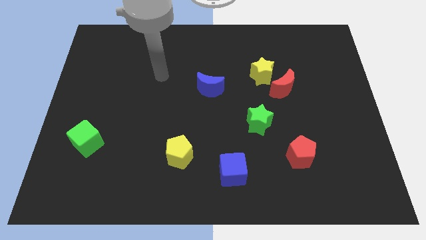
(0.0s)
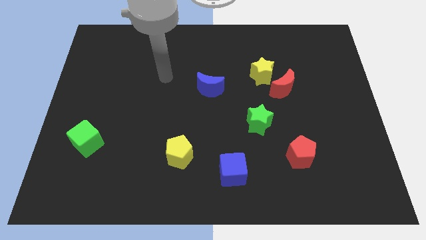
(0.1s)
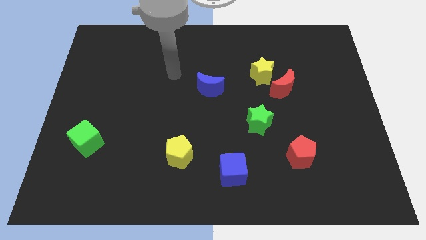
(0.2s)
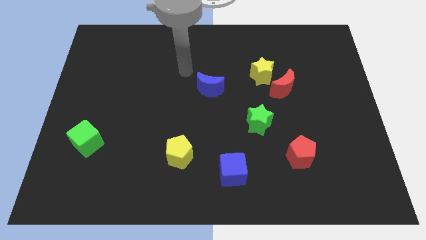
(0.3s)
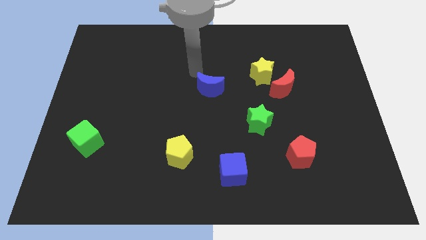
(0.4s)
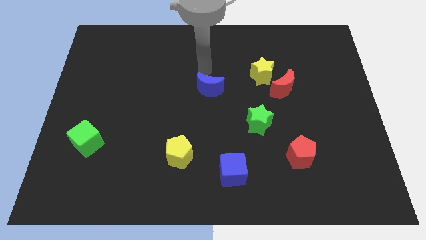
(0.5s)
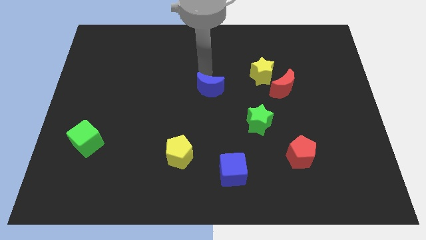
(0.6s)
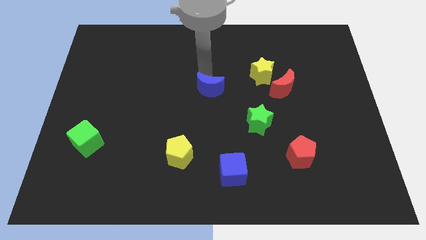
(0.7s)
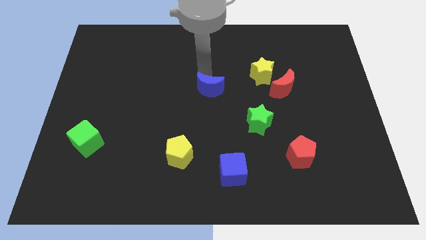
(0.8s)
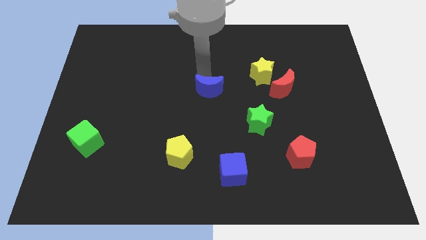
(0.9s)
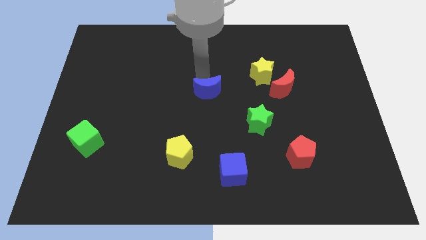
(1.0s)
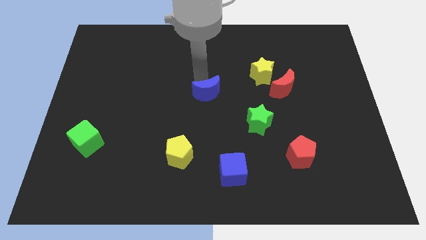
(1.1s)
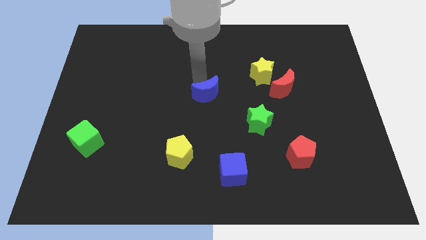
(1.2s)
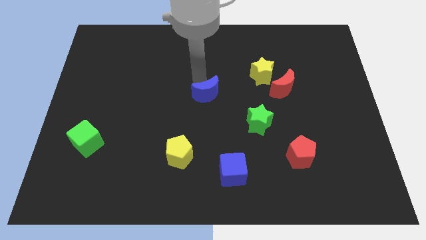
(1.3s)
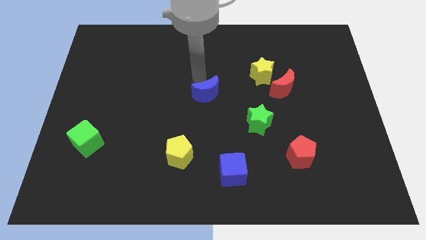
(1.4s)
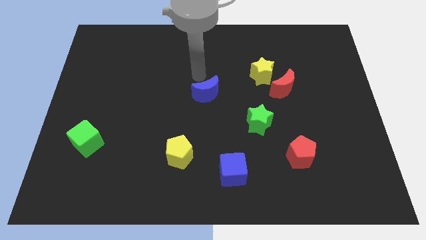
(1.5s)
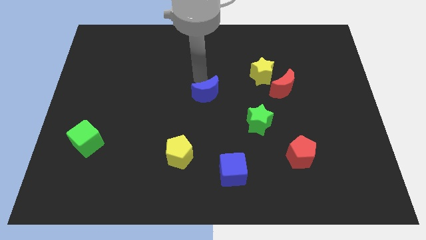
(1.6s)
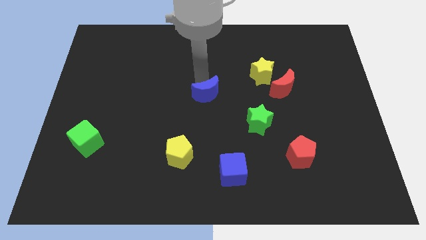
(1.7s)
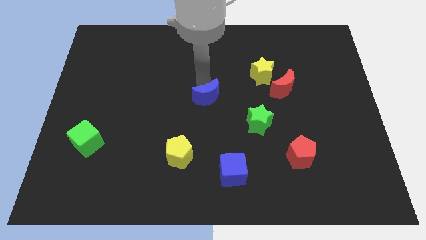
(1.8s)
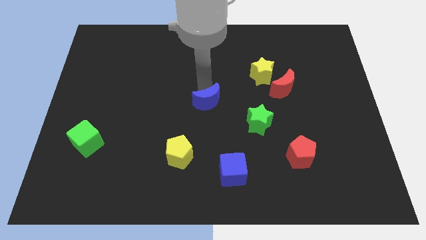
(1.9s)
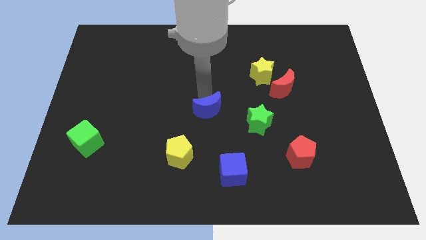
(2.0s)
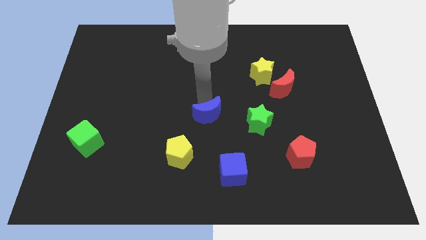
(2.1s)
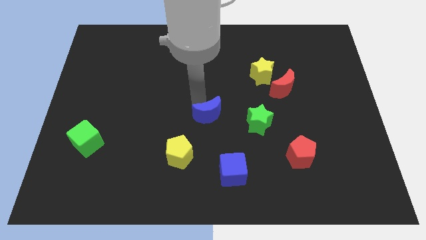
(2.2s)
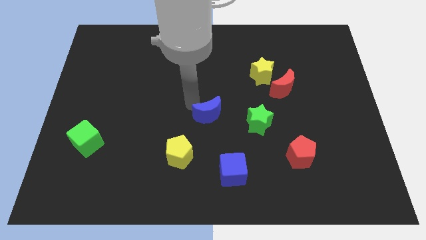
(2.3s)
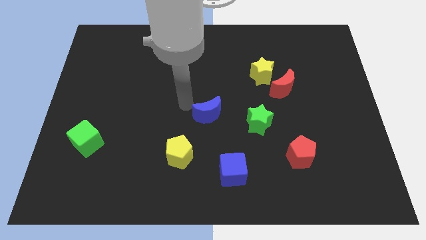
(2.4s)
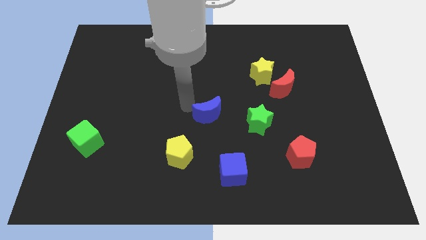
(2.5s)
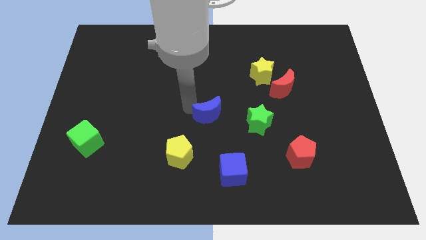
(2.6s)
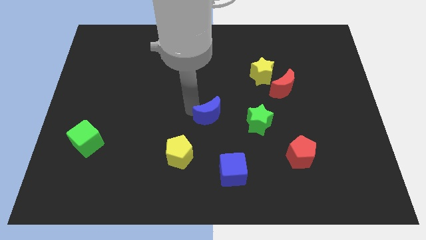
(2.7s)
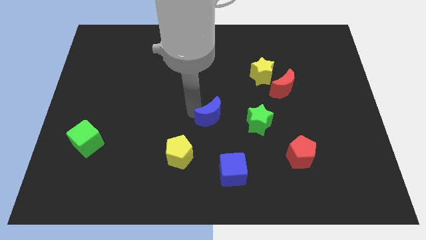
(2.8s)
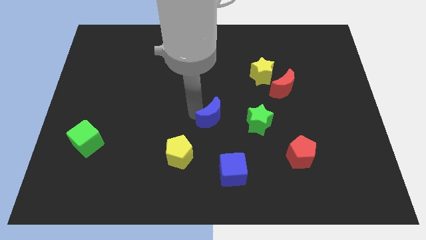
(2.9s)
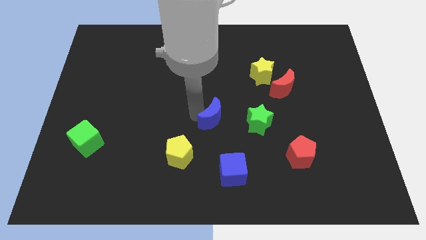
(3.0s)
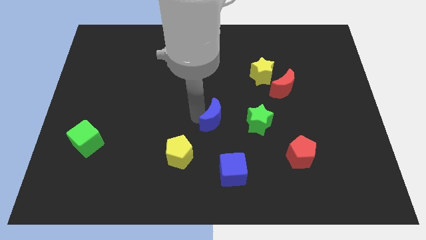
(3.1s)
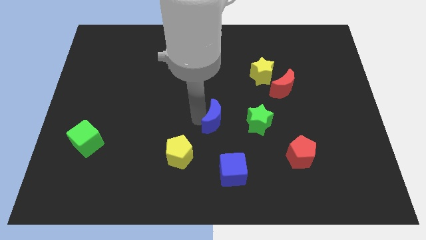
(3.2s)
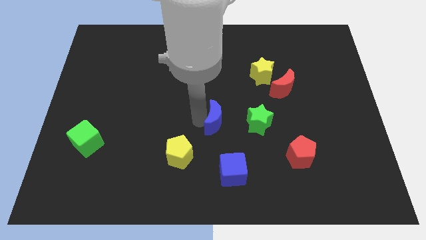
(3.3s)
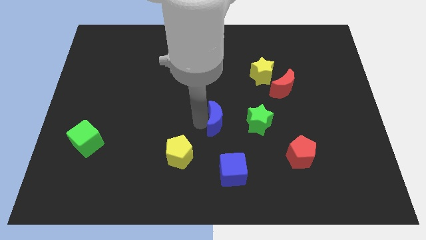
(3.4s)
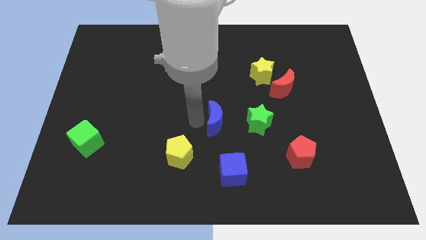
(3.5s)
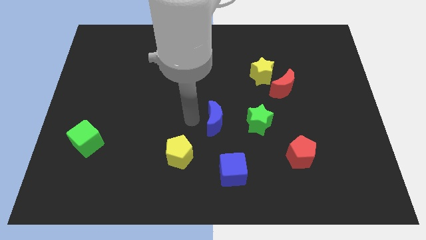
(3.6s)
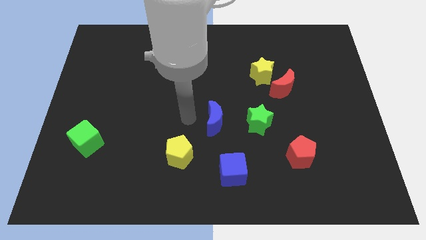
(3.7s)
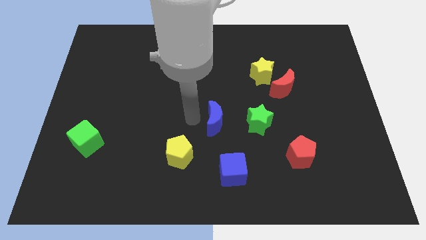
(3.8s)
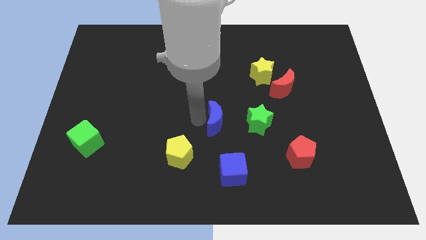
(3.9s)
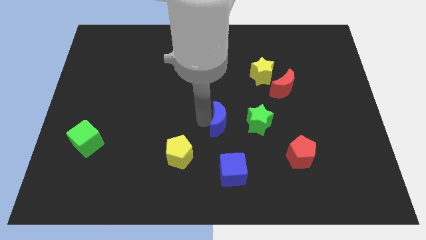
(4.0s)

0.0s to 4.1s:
push the blue moon a little bit diagonally down and right

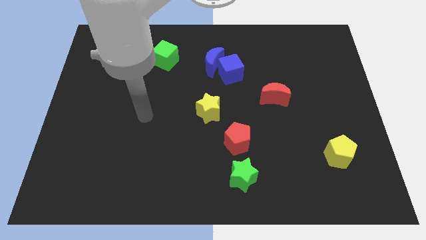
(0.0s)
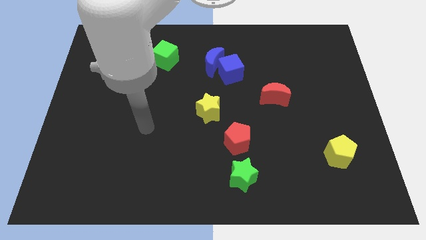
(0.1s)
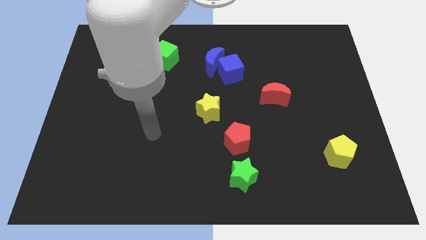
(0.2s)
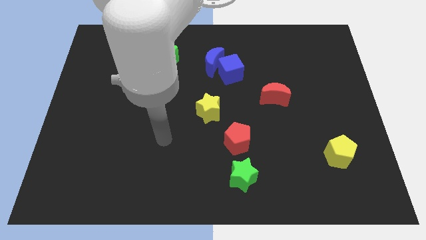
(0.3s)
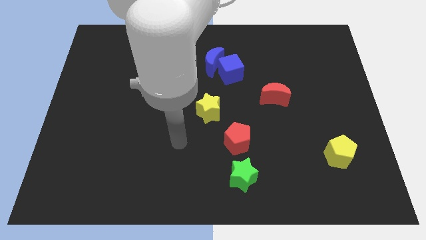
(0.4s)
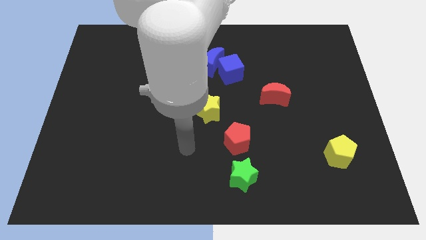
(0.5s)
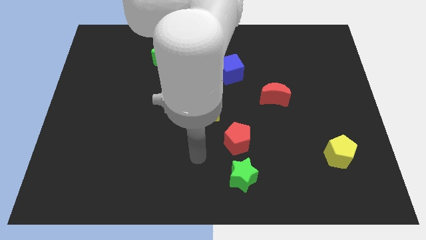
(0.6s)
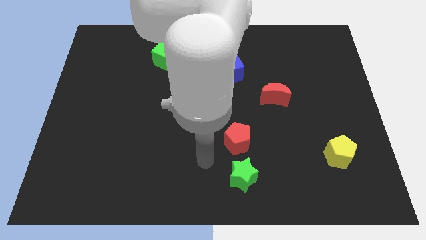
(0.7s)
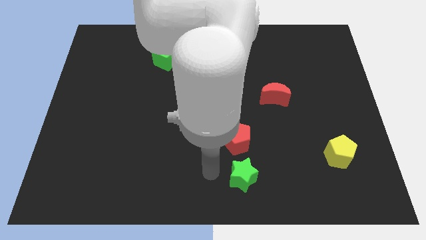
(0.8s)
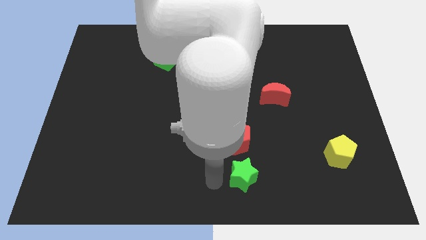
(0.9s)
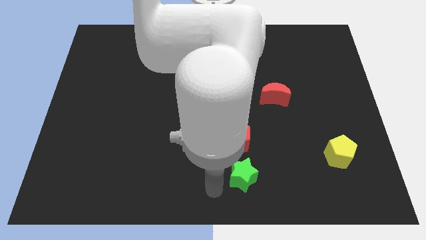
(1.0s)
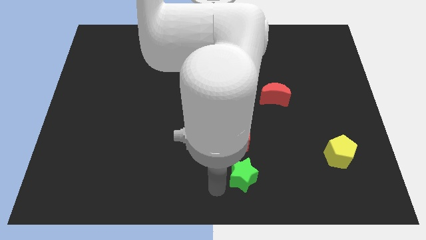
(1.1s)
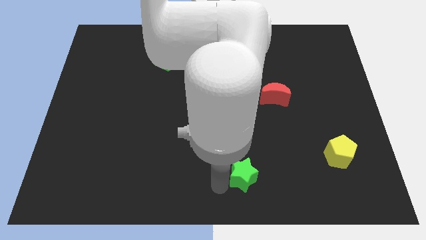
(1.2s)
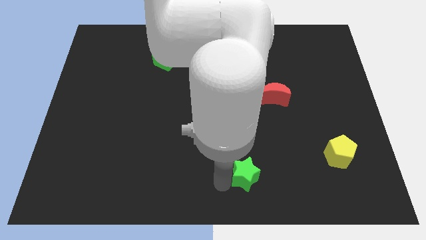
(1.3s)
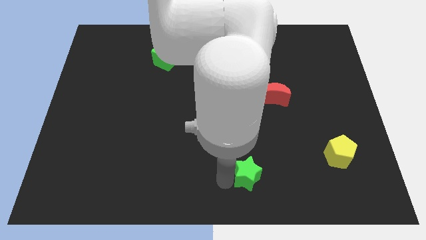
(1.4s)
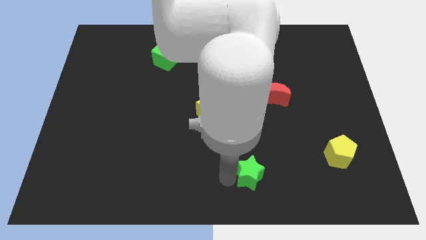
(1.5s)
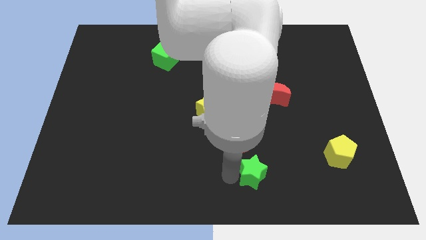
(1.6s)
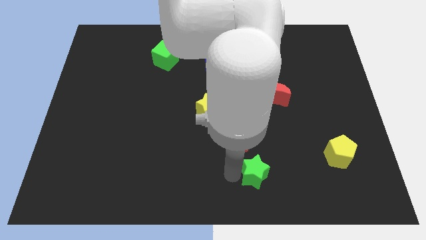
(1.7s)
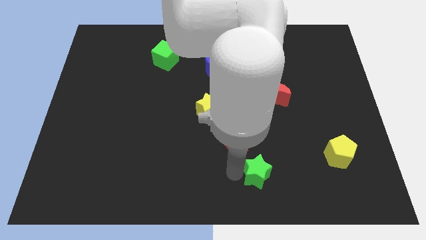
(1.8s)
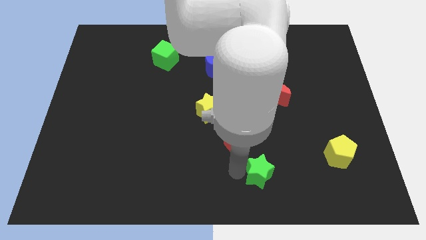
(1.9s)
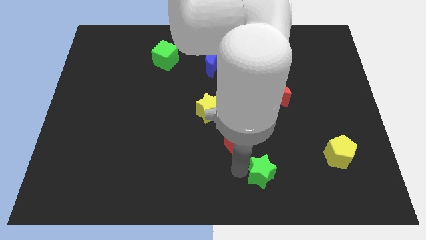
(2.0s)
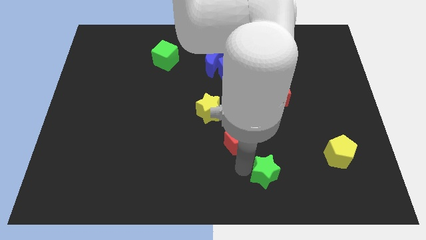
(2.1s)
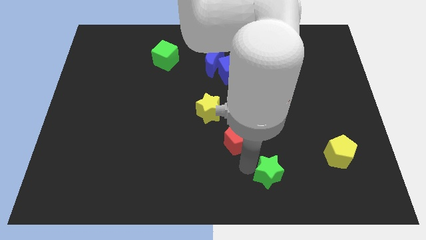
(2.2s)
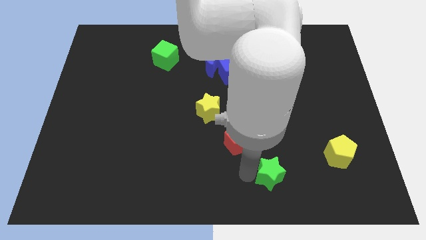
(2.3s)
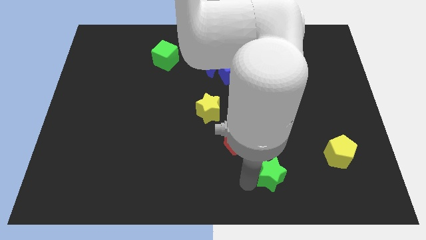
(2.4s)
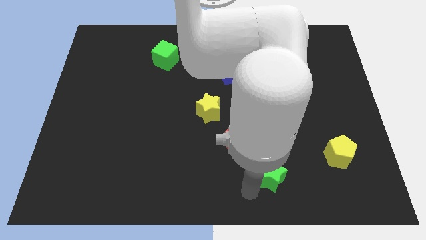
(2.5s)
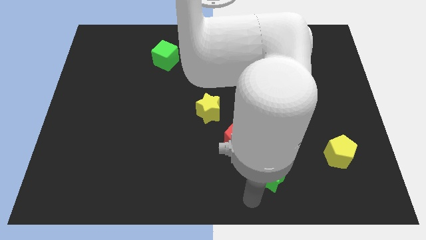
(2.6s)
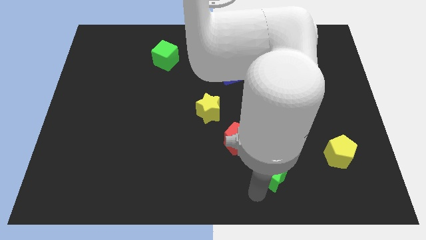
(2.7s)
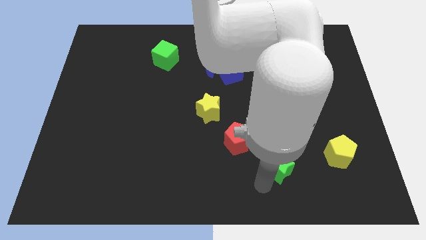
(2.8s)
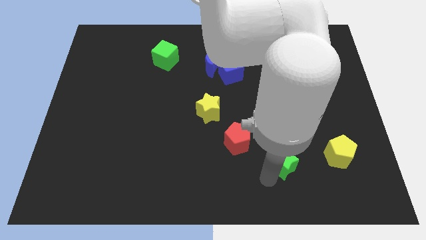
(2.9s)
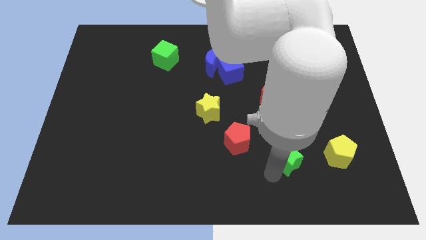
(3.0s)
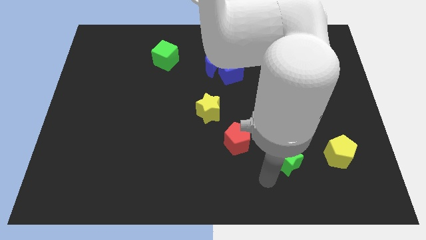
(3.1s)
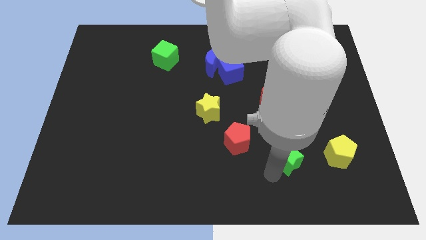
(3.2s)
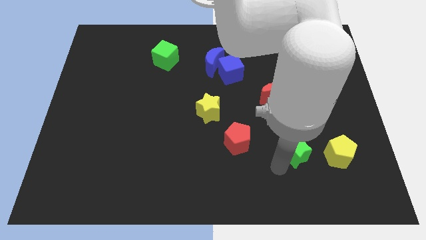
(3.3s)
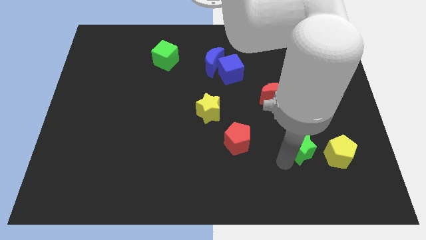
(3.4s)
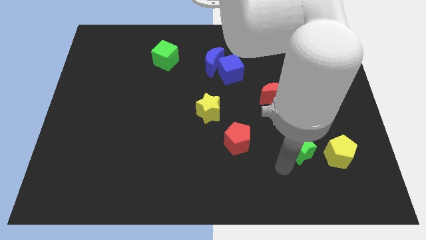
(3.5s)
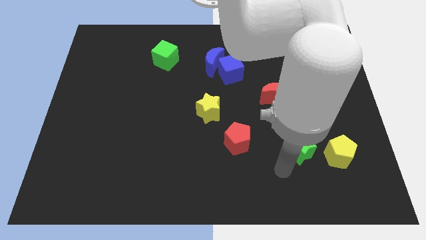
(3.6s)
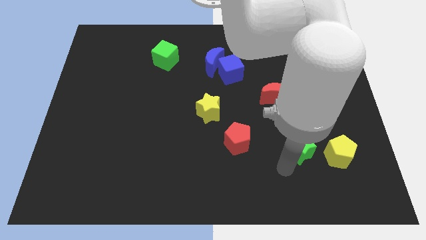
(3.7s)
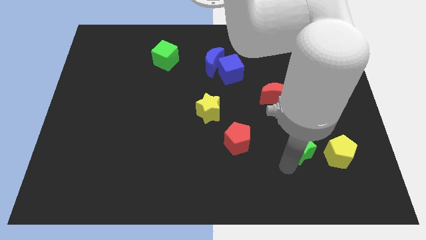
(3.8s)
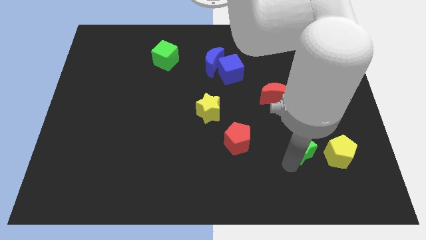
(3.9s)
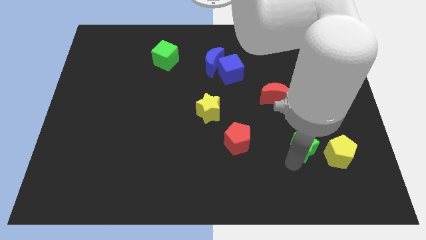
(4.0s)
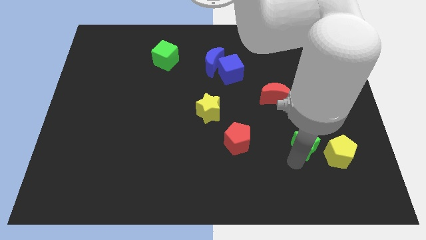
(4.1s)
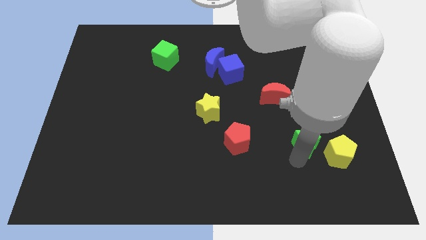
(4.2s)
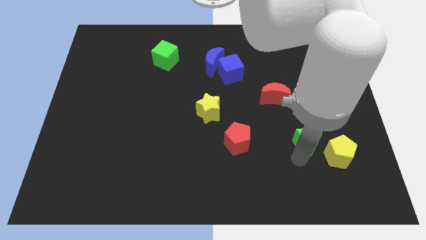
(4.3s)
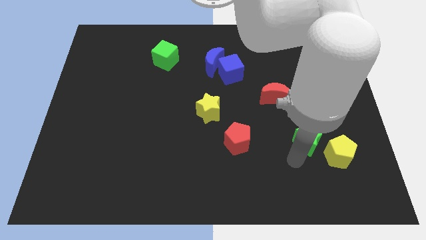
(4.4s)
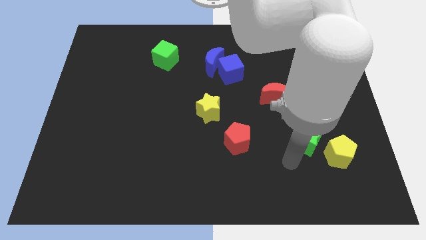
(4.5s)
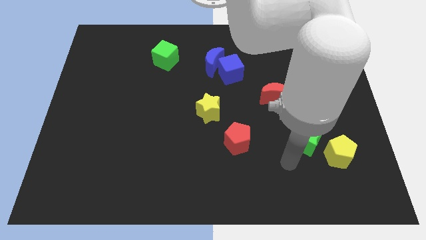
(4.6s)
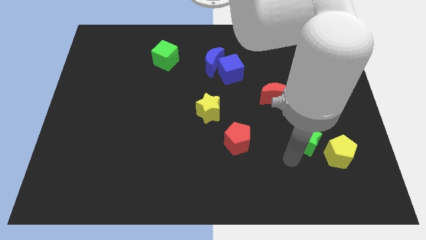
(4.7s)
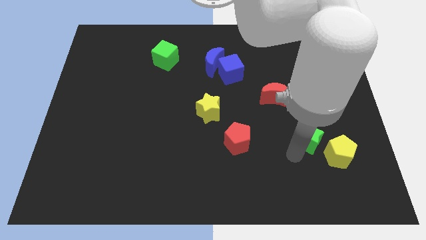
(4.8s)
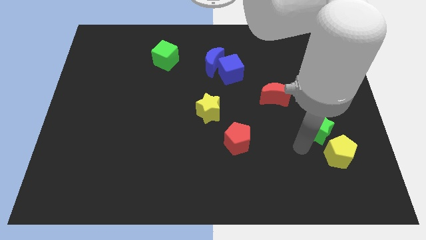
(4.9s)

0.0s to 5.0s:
move the green star diagonally up and to the right
